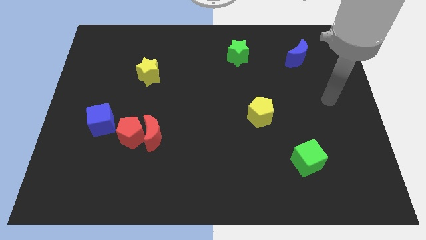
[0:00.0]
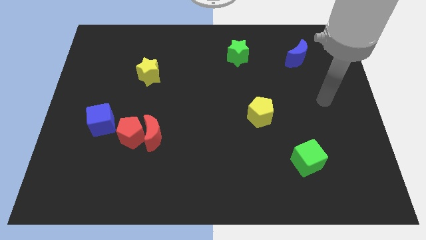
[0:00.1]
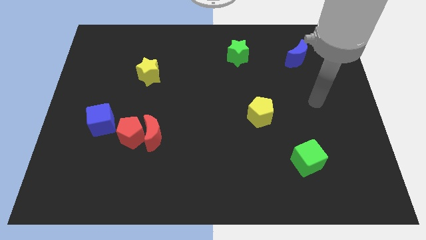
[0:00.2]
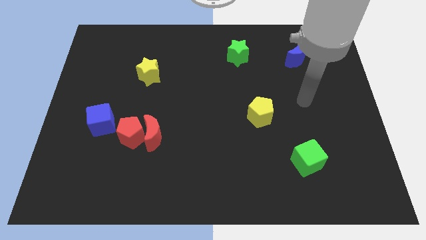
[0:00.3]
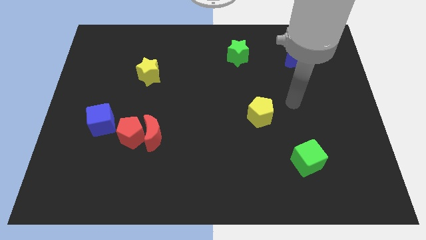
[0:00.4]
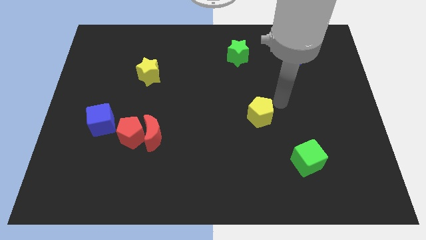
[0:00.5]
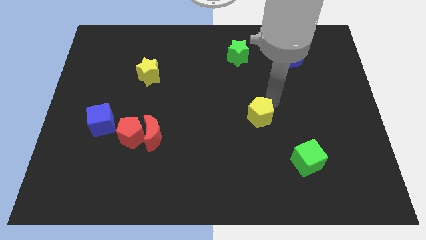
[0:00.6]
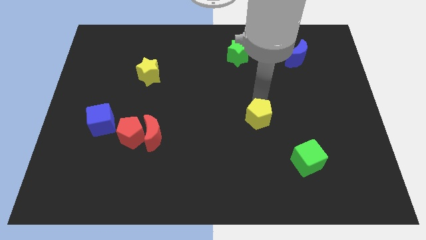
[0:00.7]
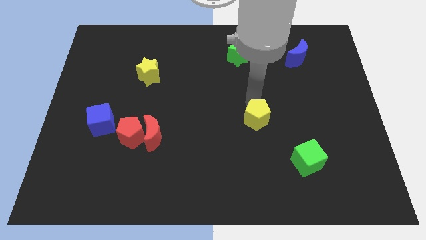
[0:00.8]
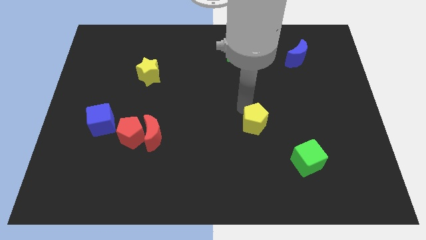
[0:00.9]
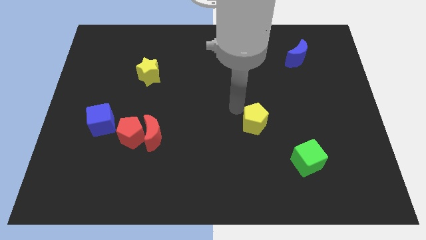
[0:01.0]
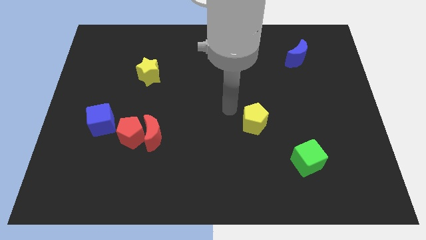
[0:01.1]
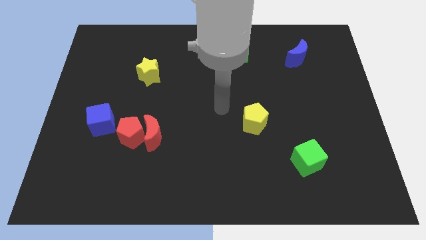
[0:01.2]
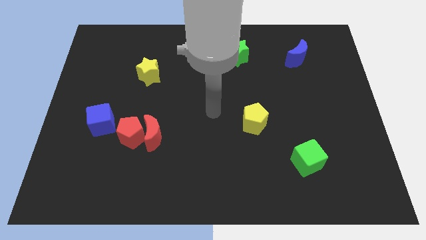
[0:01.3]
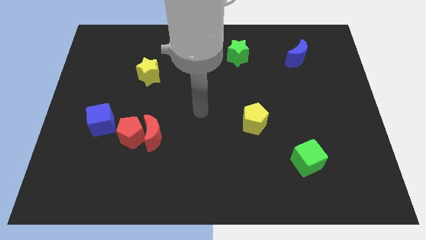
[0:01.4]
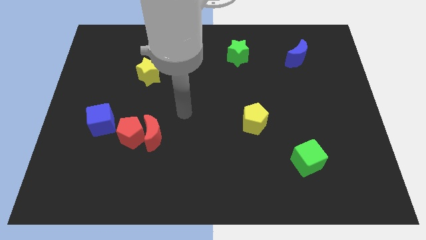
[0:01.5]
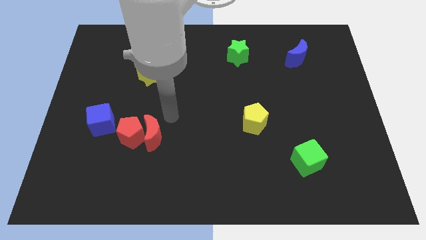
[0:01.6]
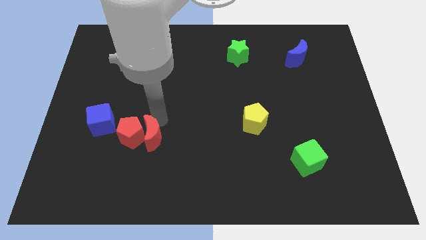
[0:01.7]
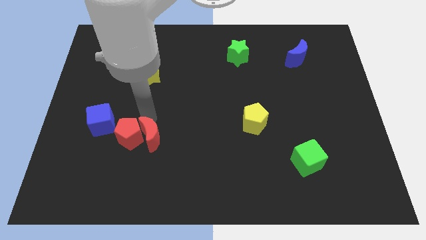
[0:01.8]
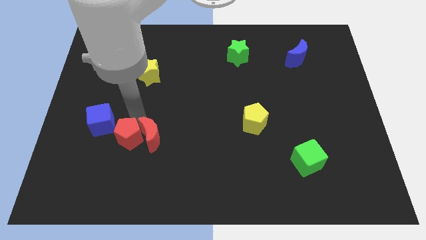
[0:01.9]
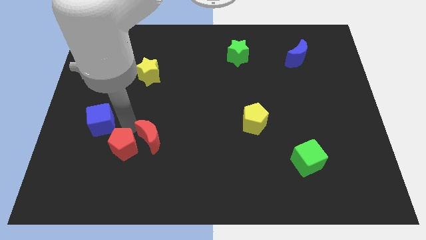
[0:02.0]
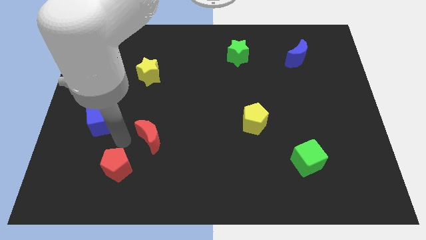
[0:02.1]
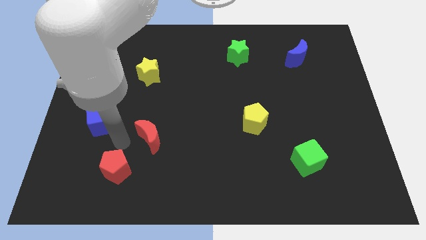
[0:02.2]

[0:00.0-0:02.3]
move the red moon away from the red pentagon

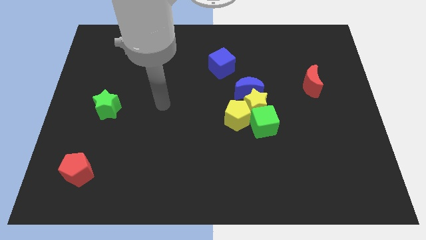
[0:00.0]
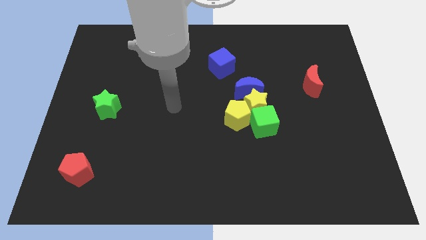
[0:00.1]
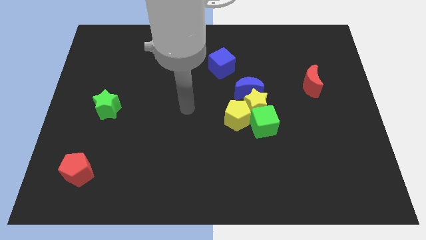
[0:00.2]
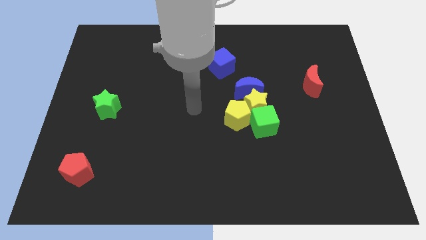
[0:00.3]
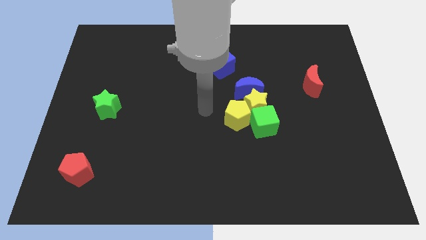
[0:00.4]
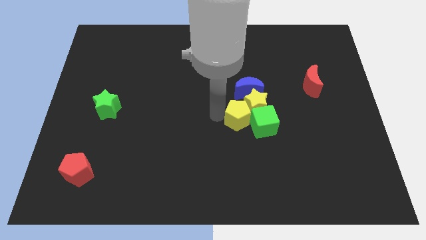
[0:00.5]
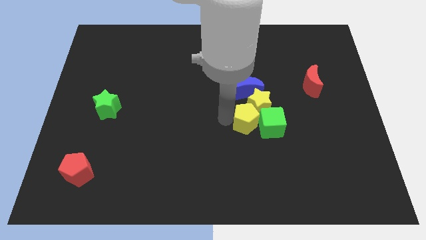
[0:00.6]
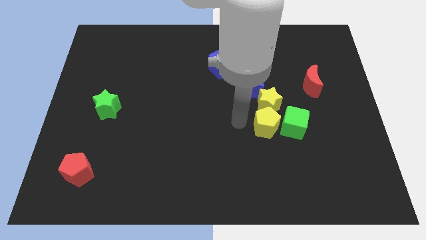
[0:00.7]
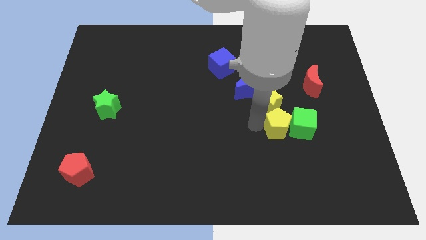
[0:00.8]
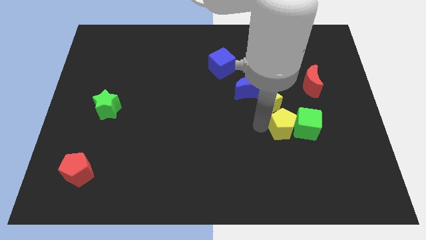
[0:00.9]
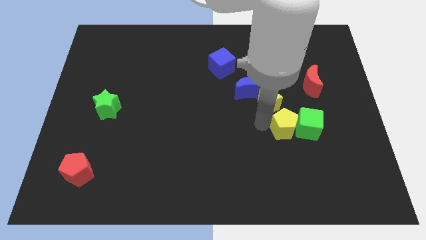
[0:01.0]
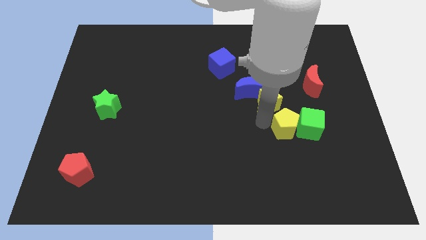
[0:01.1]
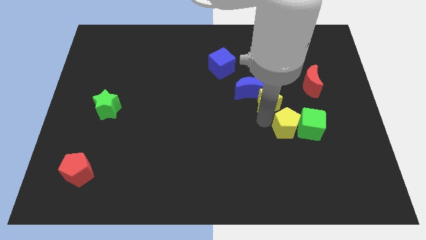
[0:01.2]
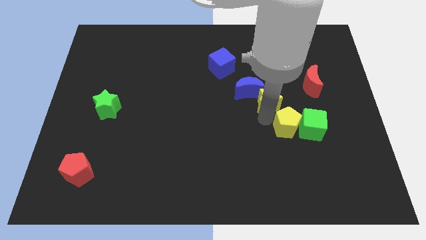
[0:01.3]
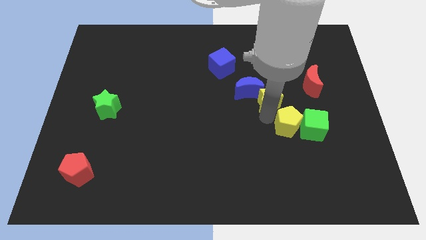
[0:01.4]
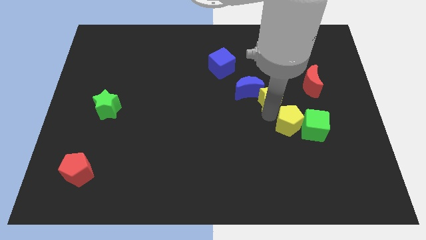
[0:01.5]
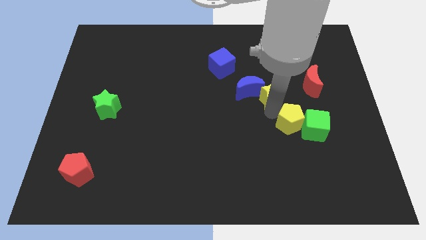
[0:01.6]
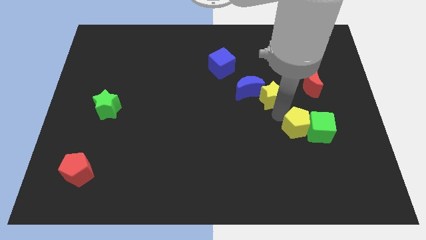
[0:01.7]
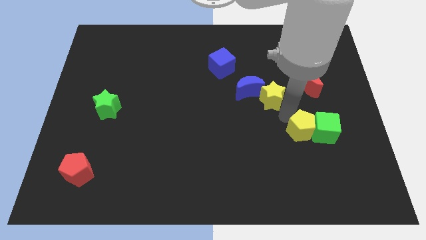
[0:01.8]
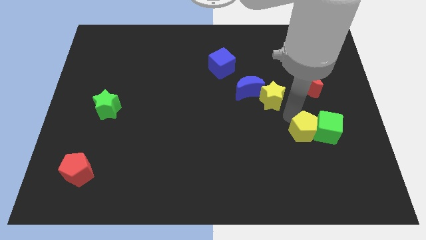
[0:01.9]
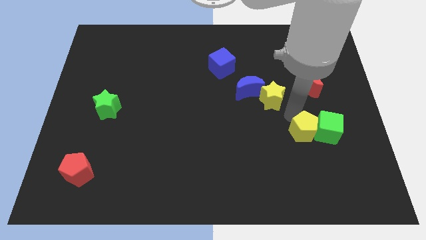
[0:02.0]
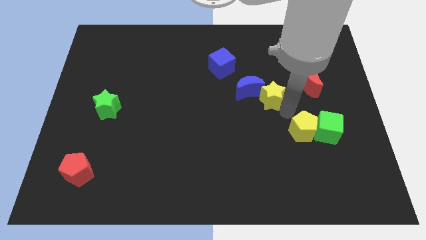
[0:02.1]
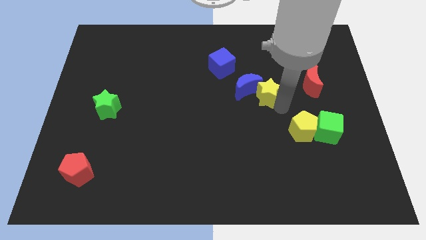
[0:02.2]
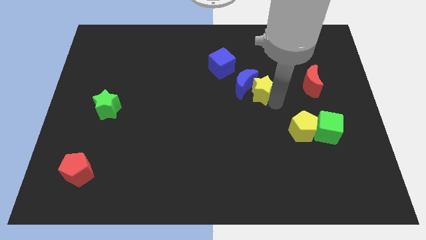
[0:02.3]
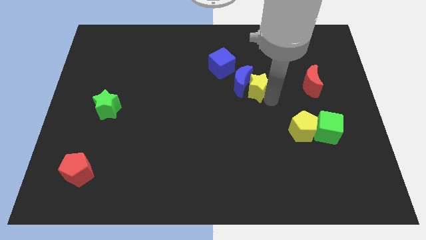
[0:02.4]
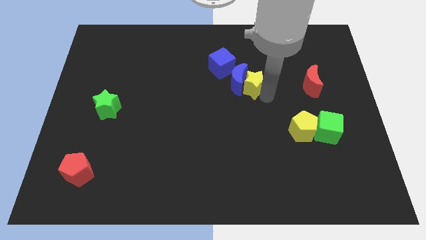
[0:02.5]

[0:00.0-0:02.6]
pull the yellow star apart from the blue moon, yellow pentagon, and green cube

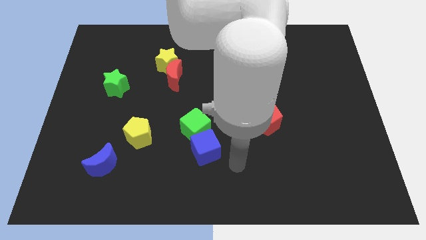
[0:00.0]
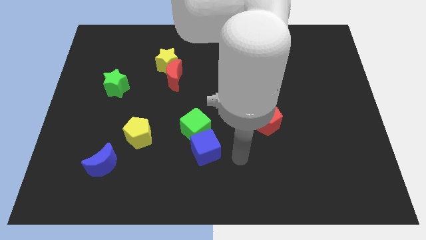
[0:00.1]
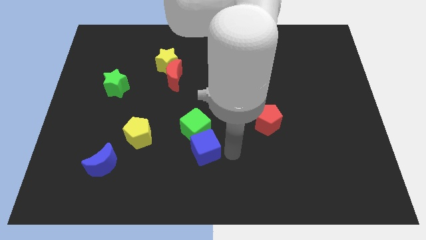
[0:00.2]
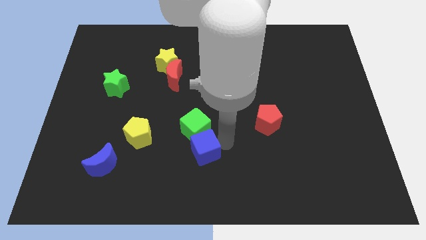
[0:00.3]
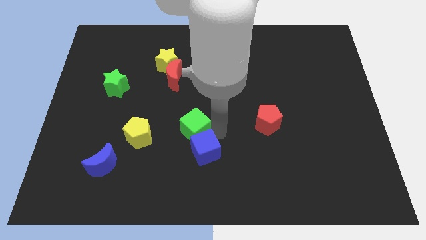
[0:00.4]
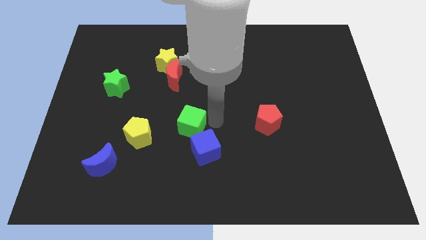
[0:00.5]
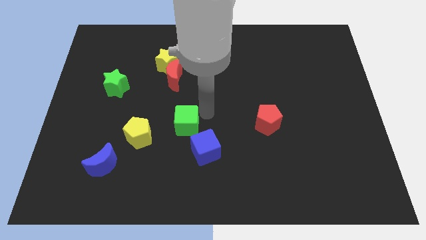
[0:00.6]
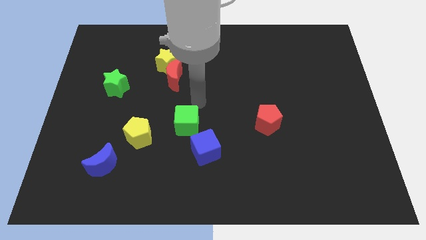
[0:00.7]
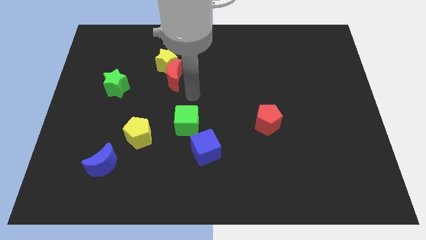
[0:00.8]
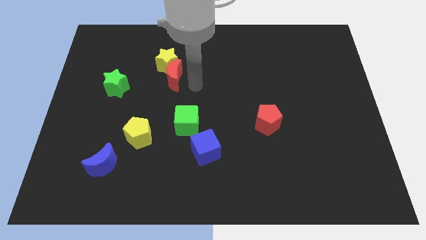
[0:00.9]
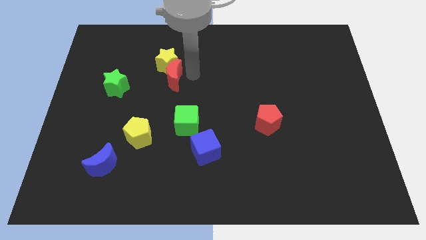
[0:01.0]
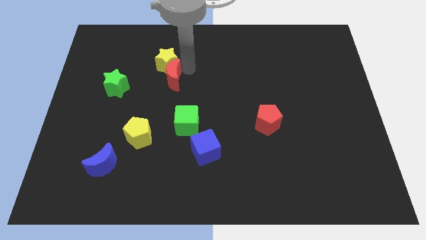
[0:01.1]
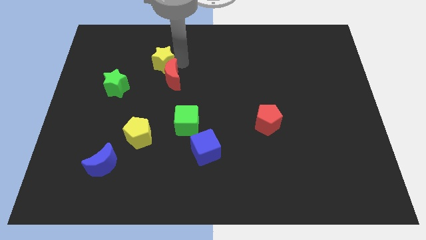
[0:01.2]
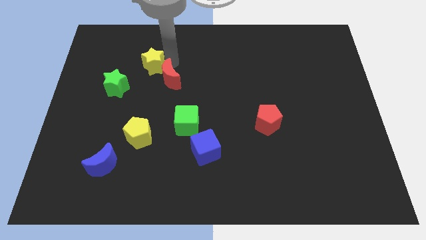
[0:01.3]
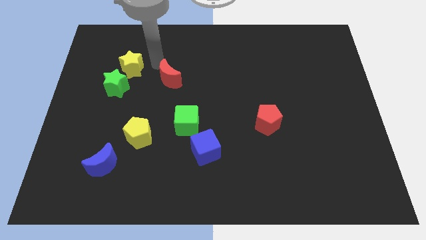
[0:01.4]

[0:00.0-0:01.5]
separate the red moon from the yellow star

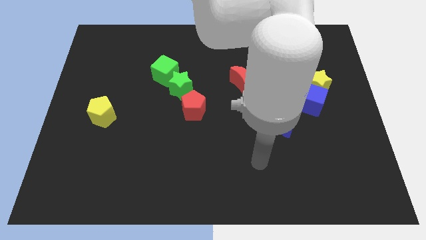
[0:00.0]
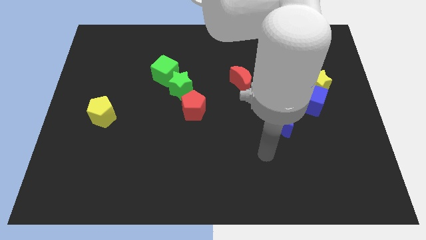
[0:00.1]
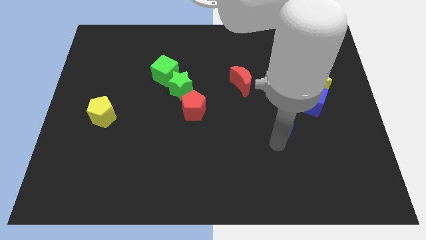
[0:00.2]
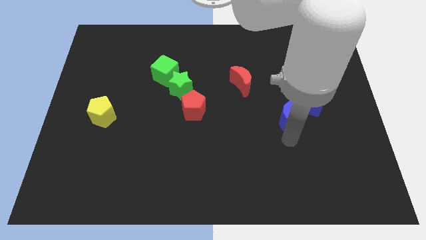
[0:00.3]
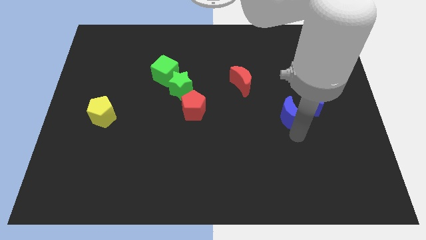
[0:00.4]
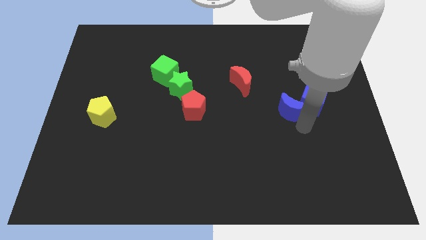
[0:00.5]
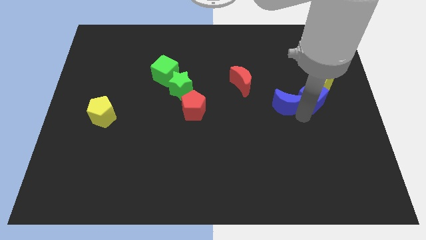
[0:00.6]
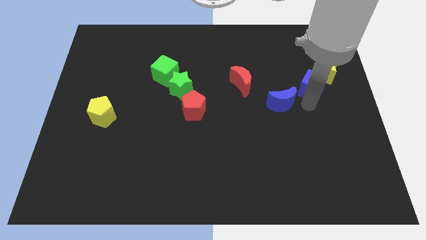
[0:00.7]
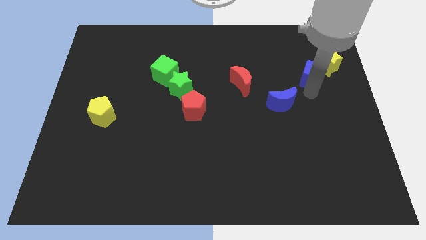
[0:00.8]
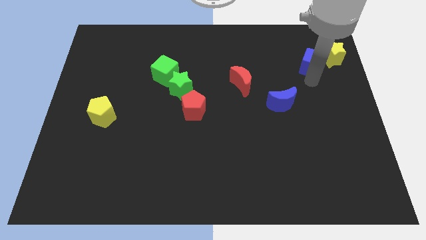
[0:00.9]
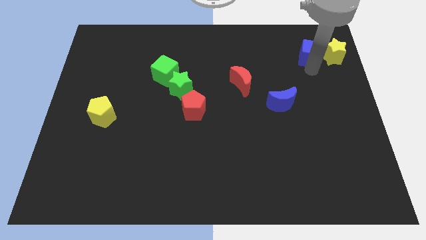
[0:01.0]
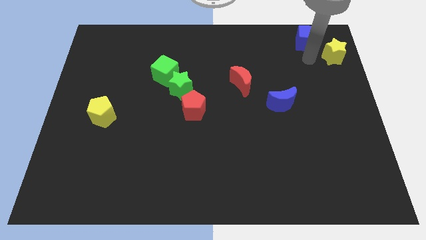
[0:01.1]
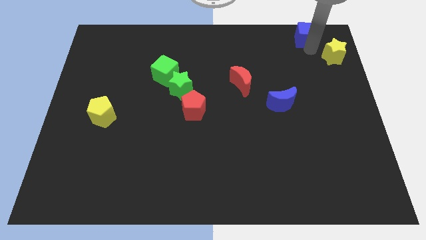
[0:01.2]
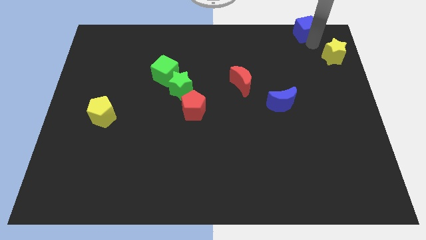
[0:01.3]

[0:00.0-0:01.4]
move the yellow star away from the blue cube

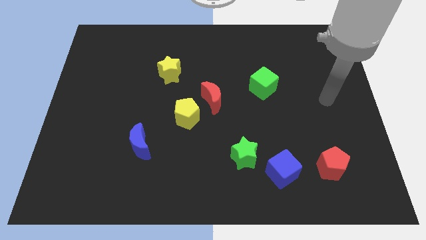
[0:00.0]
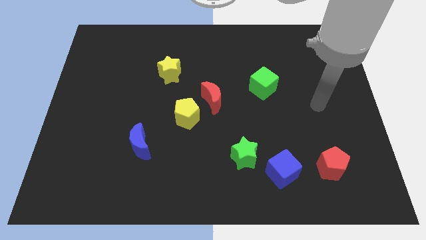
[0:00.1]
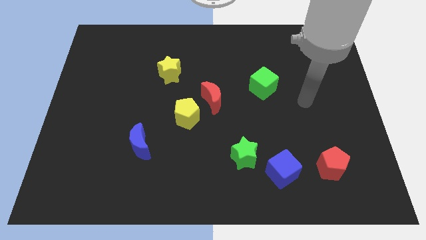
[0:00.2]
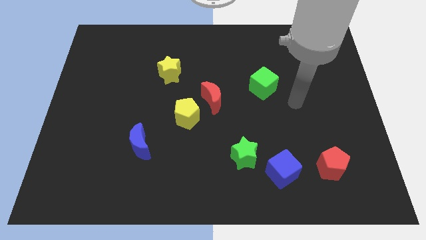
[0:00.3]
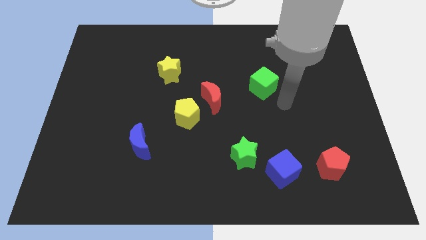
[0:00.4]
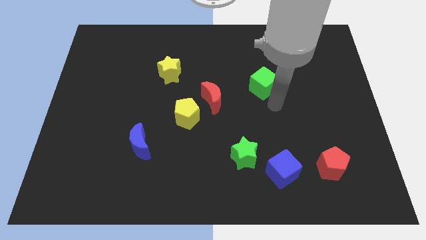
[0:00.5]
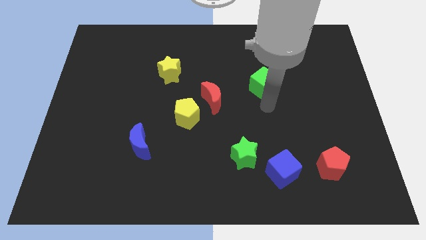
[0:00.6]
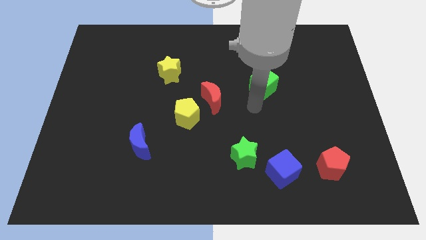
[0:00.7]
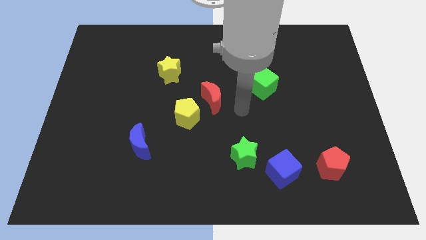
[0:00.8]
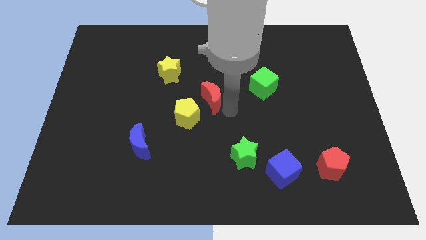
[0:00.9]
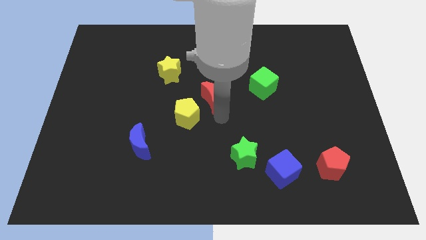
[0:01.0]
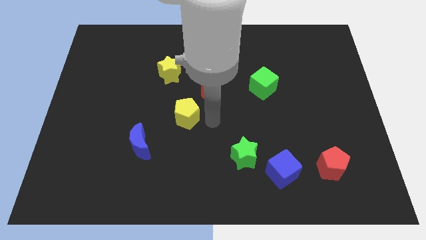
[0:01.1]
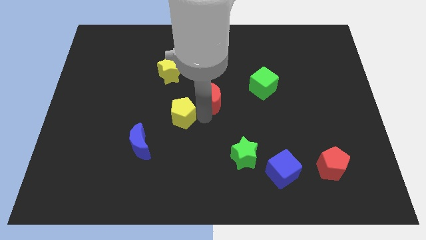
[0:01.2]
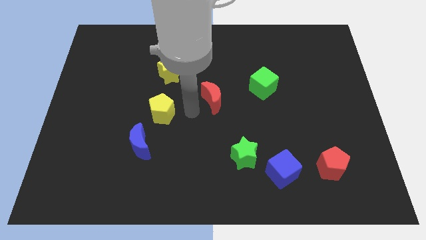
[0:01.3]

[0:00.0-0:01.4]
separate the red moon from the yellow pentagon
